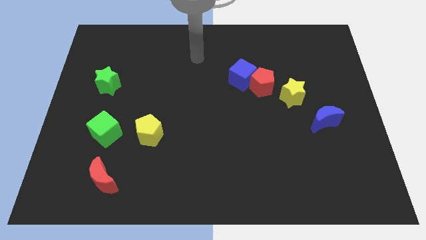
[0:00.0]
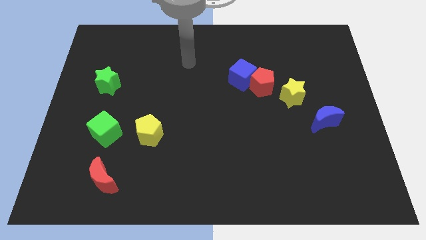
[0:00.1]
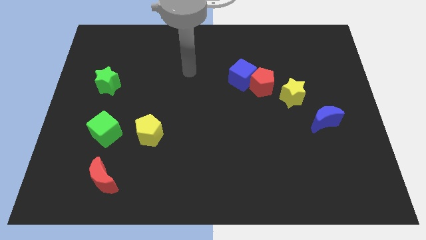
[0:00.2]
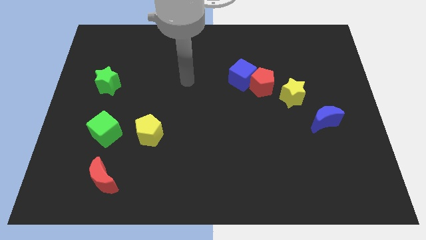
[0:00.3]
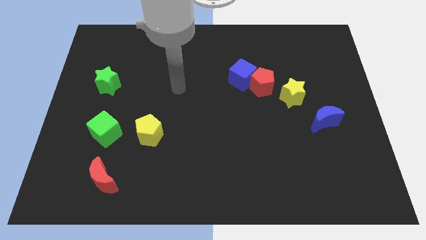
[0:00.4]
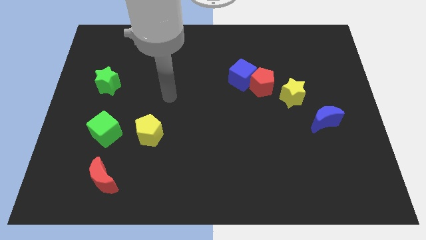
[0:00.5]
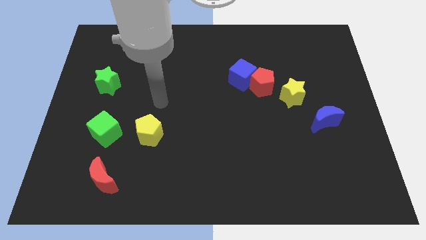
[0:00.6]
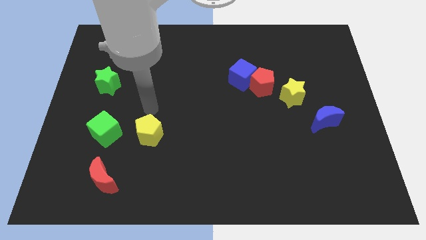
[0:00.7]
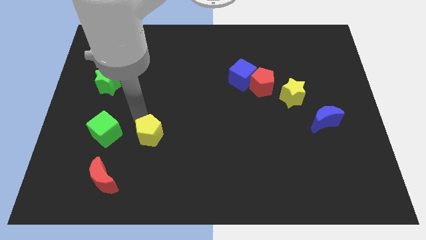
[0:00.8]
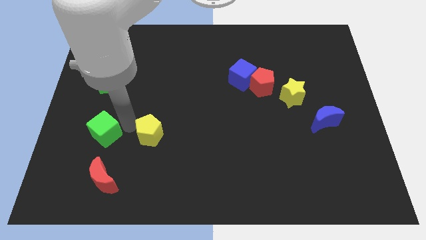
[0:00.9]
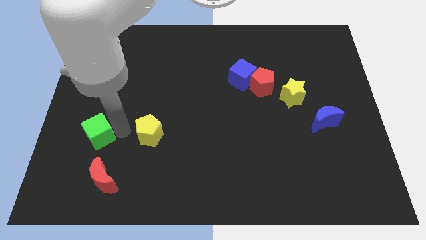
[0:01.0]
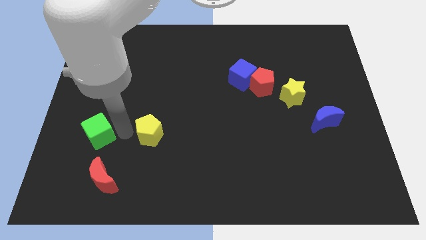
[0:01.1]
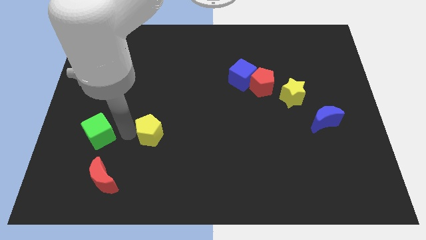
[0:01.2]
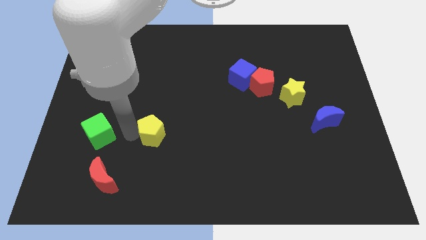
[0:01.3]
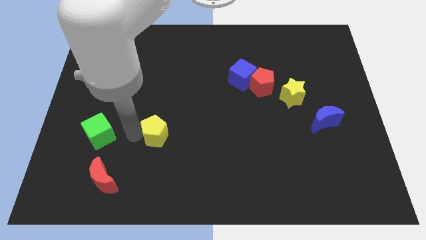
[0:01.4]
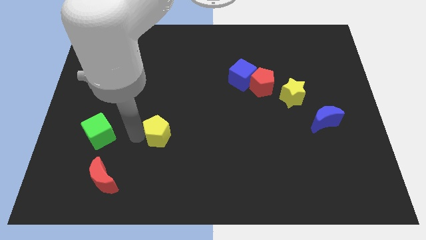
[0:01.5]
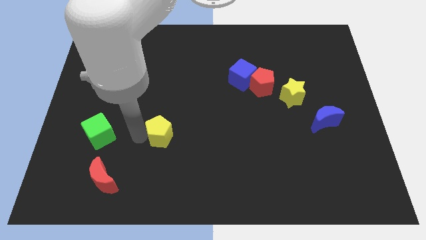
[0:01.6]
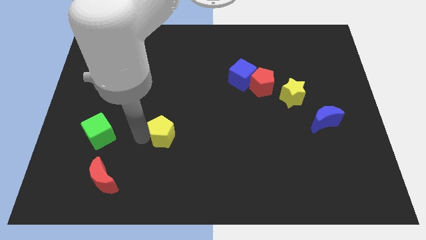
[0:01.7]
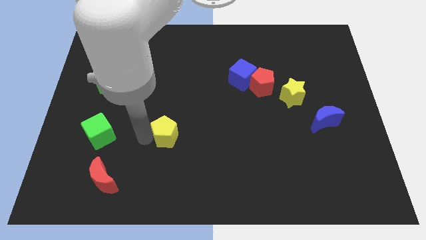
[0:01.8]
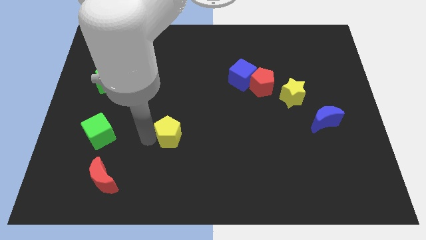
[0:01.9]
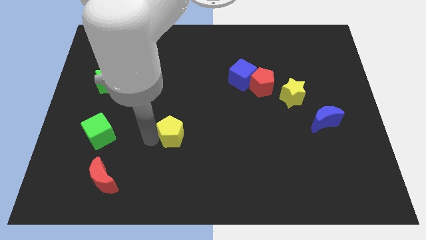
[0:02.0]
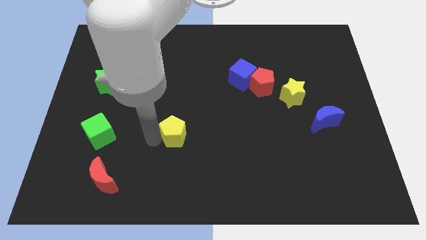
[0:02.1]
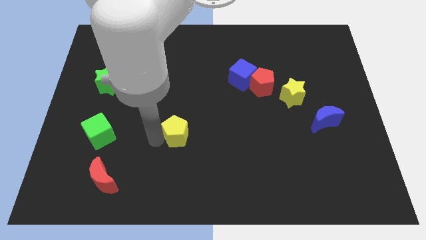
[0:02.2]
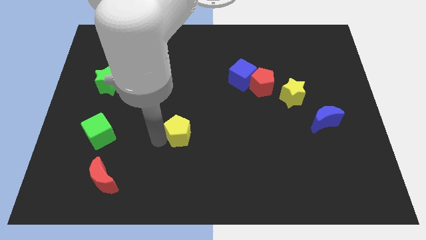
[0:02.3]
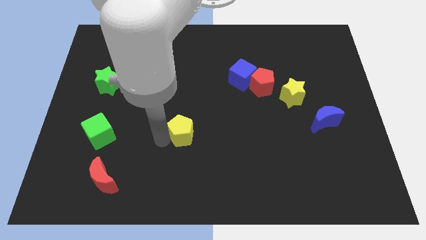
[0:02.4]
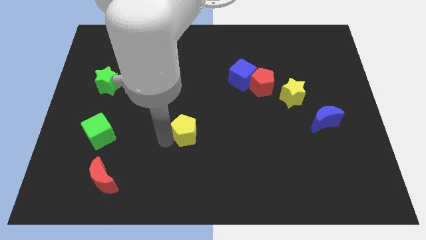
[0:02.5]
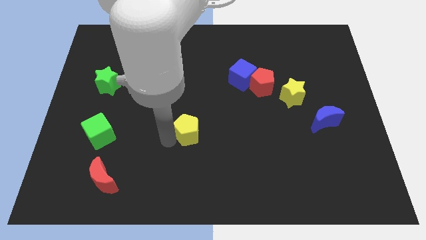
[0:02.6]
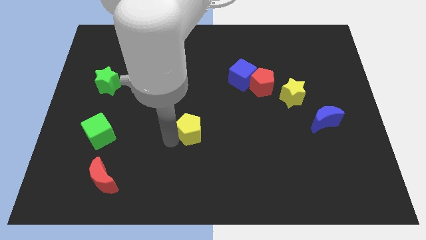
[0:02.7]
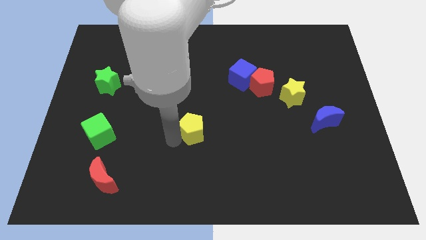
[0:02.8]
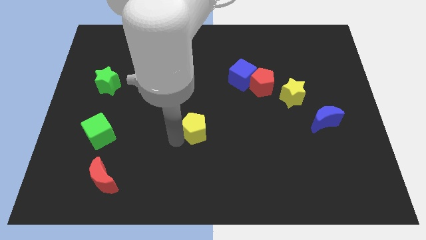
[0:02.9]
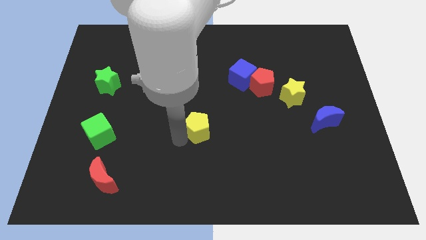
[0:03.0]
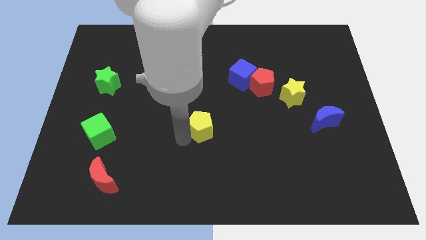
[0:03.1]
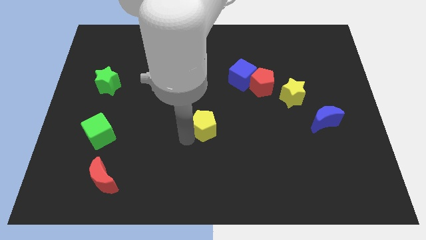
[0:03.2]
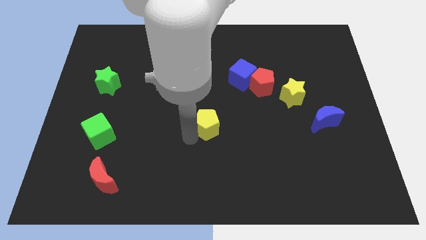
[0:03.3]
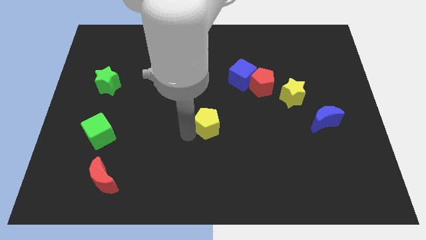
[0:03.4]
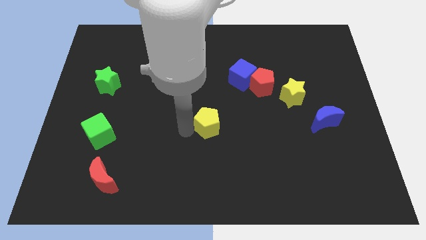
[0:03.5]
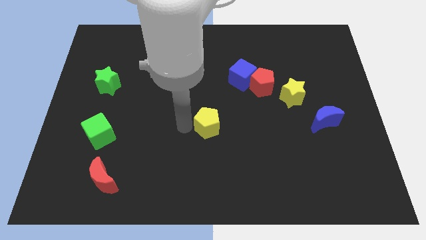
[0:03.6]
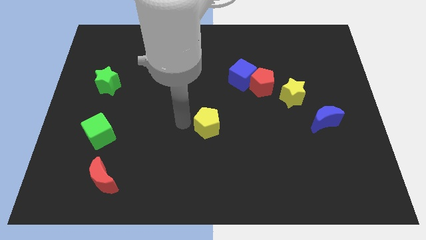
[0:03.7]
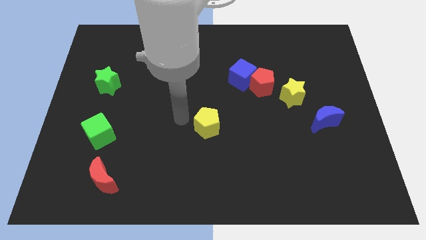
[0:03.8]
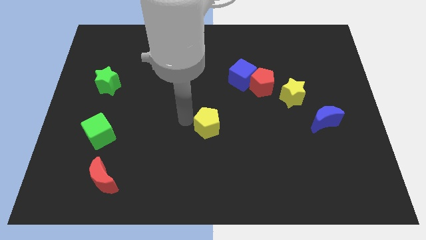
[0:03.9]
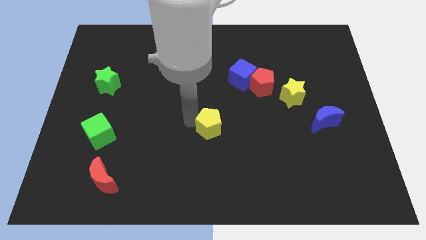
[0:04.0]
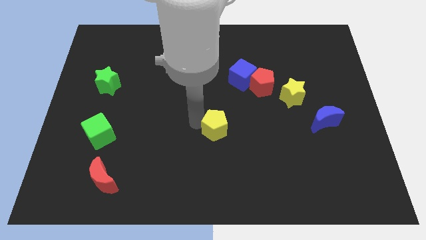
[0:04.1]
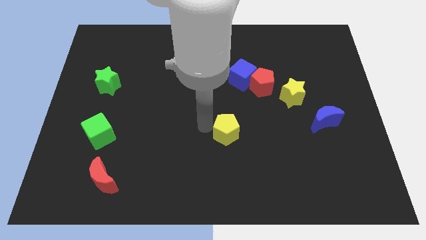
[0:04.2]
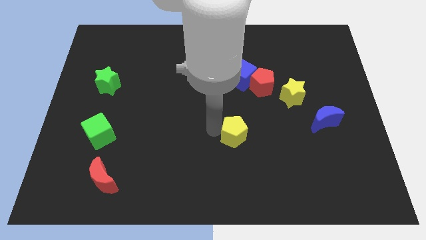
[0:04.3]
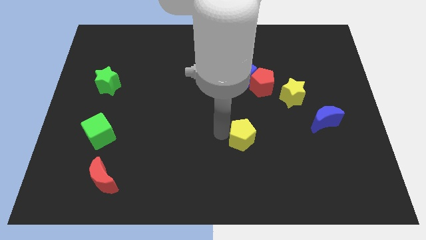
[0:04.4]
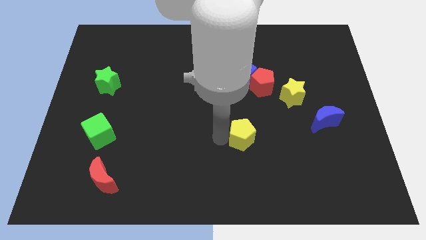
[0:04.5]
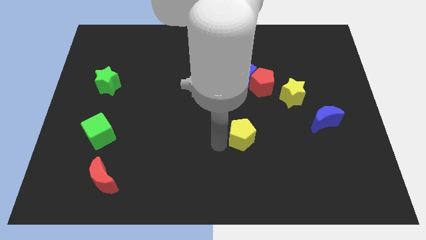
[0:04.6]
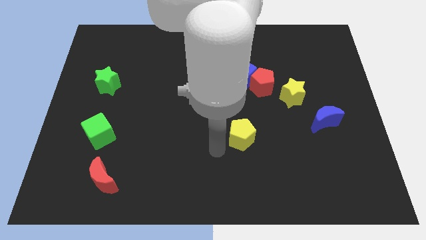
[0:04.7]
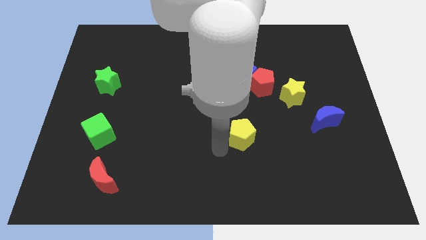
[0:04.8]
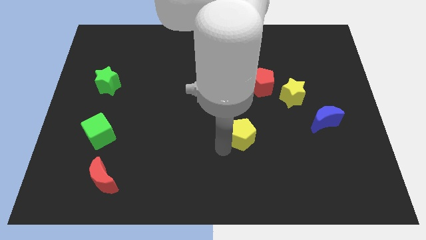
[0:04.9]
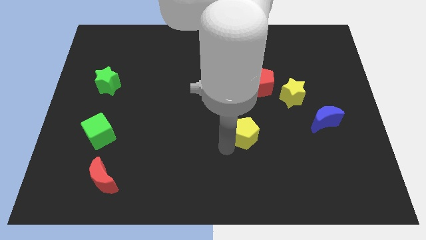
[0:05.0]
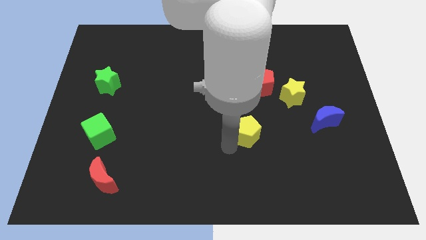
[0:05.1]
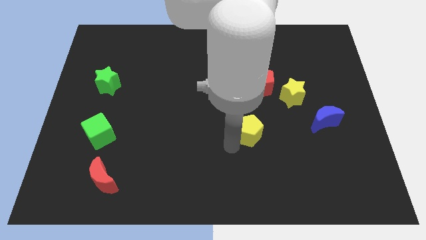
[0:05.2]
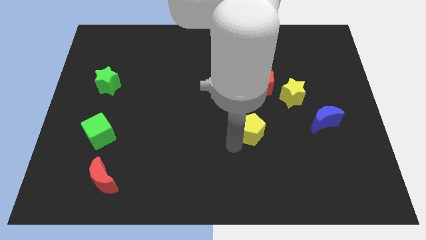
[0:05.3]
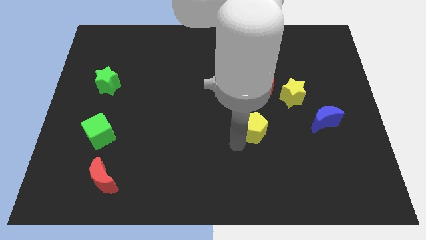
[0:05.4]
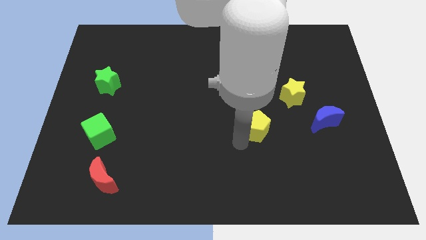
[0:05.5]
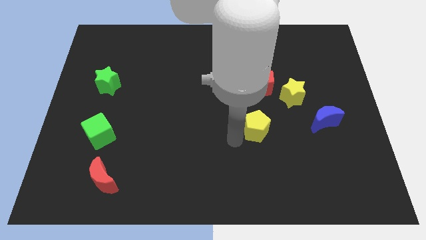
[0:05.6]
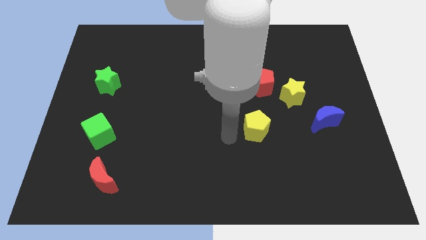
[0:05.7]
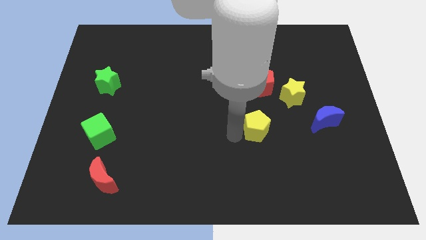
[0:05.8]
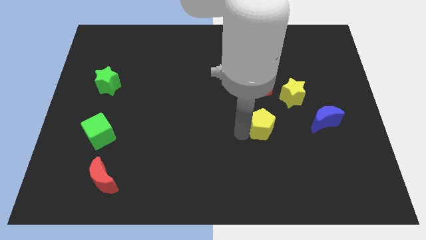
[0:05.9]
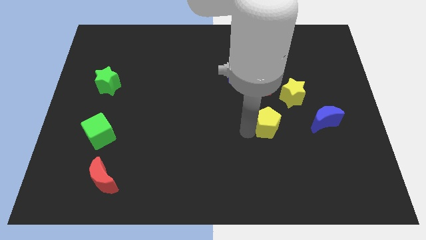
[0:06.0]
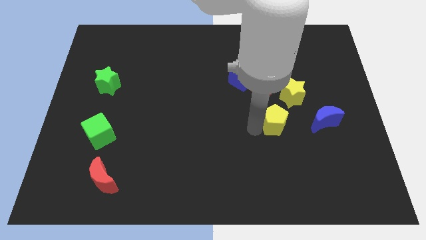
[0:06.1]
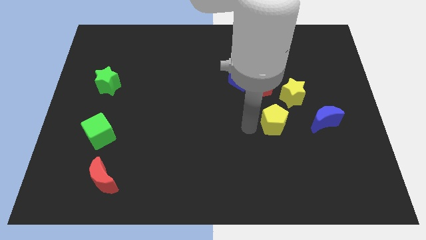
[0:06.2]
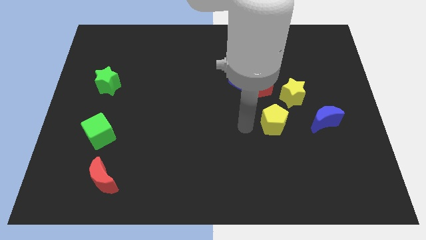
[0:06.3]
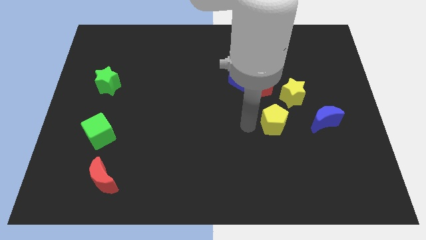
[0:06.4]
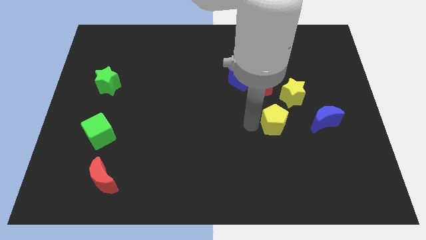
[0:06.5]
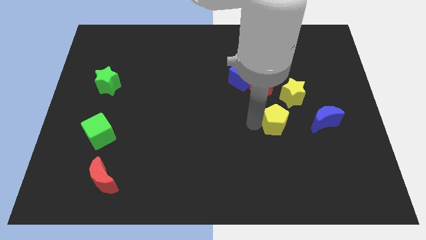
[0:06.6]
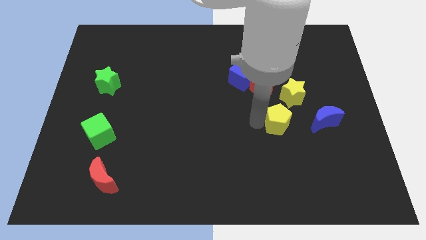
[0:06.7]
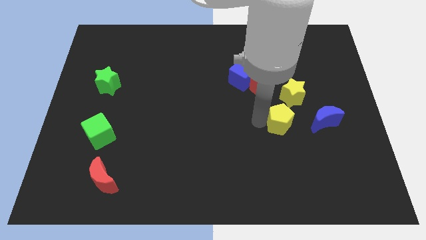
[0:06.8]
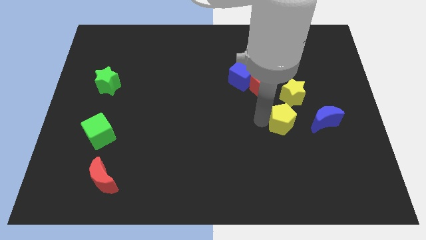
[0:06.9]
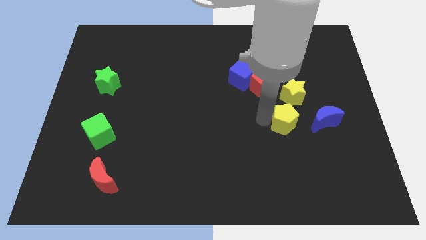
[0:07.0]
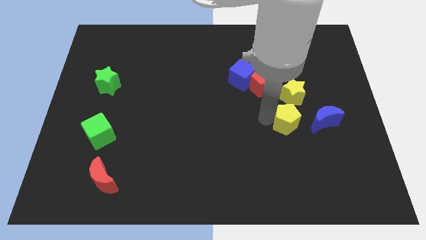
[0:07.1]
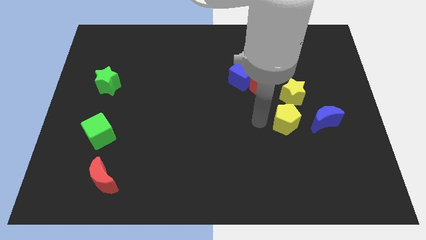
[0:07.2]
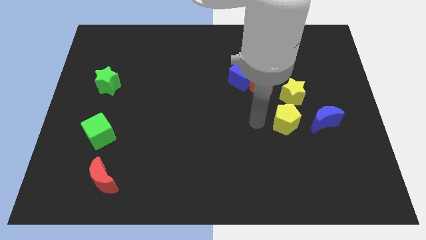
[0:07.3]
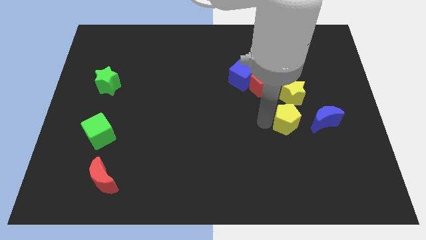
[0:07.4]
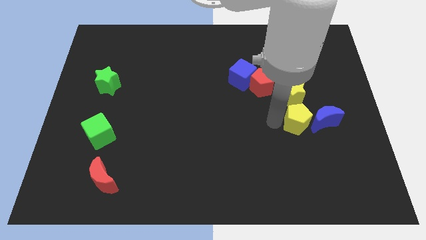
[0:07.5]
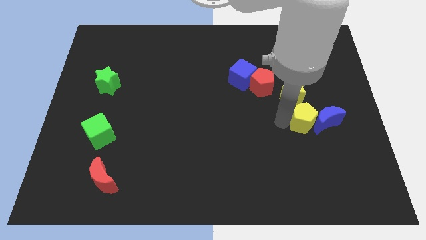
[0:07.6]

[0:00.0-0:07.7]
push the yellow pentagon next to the blue moon
